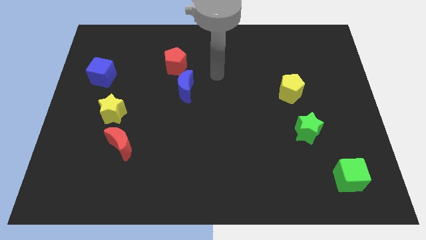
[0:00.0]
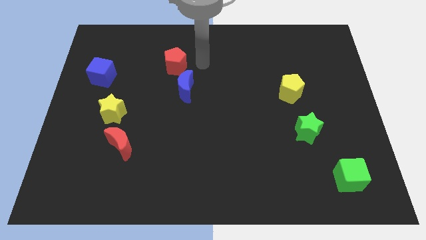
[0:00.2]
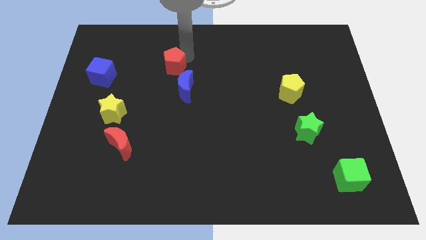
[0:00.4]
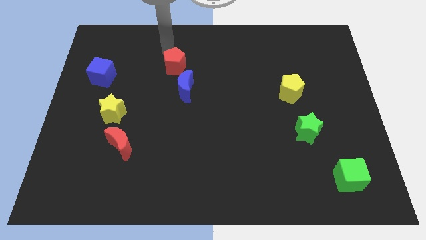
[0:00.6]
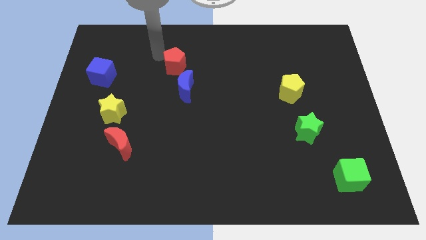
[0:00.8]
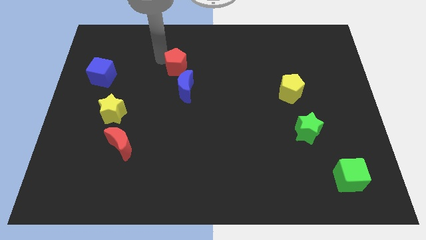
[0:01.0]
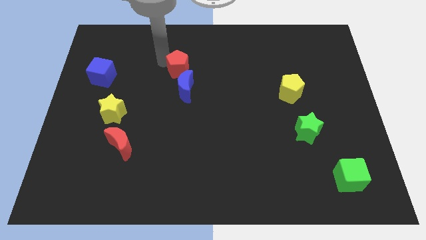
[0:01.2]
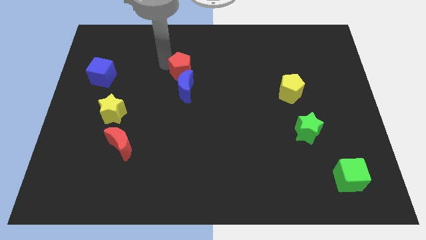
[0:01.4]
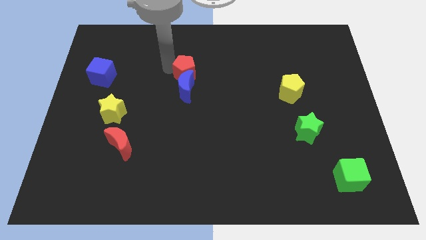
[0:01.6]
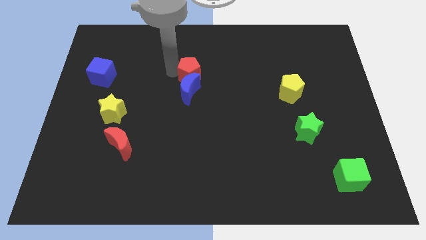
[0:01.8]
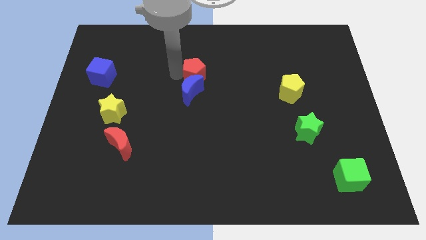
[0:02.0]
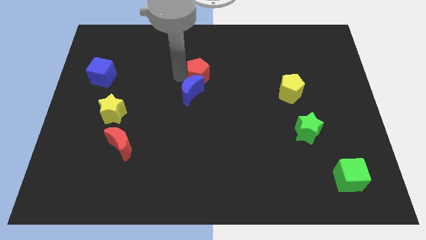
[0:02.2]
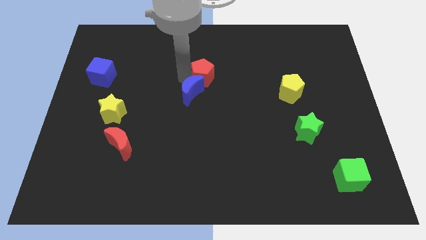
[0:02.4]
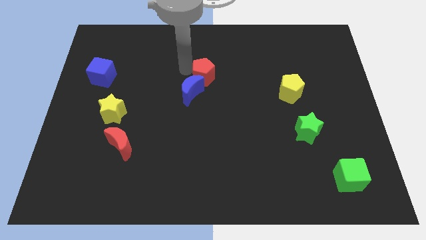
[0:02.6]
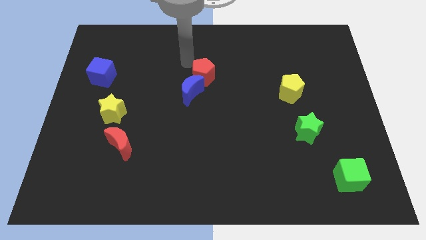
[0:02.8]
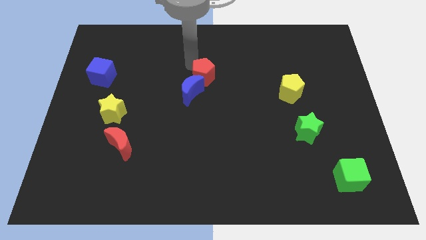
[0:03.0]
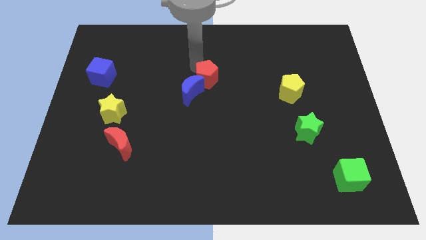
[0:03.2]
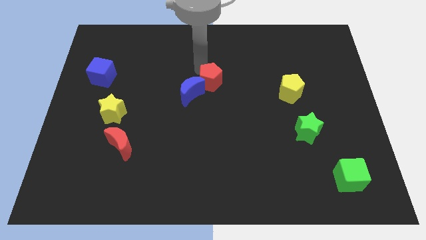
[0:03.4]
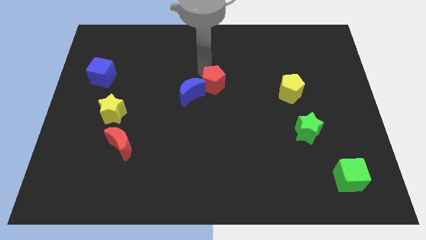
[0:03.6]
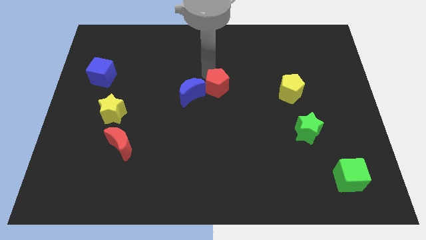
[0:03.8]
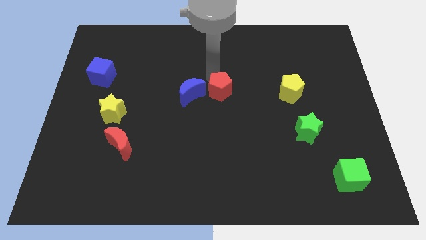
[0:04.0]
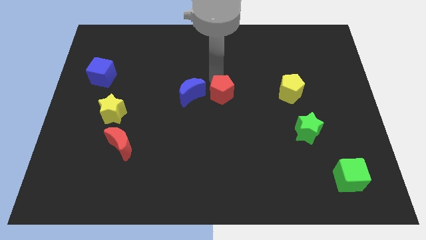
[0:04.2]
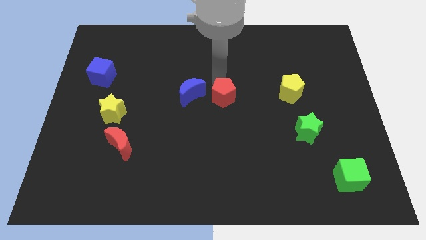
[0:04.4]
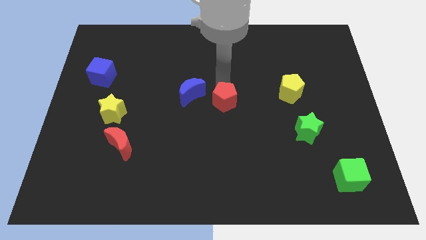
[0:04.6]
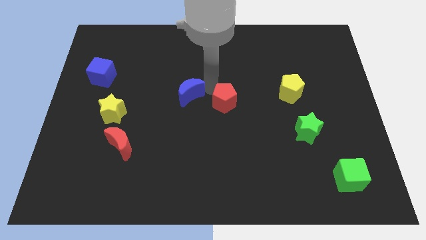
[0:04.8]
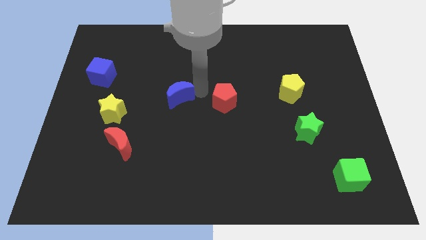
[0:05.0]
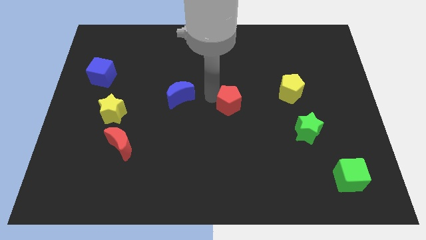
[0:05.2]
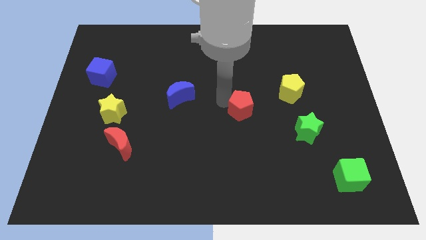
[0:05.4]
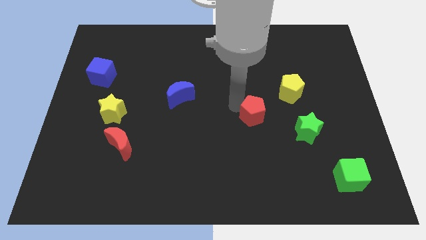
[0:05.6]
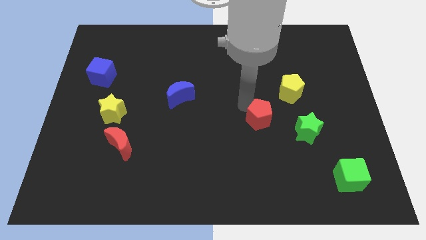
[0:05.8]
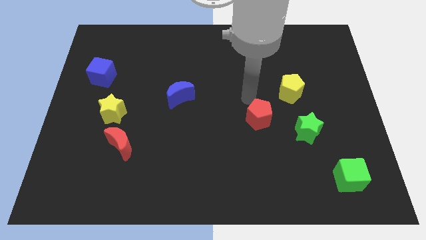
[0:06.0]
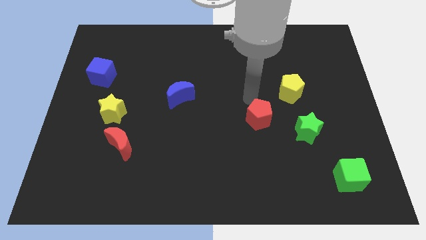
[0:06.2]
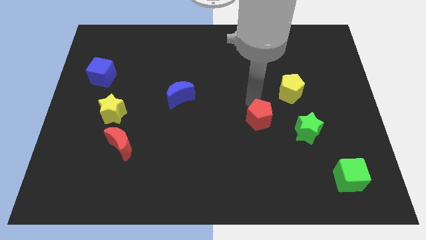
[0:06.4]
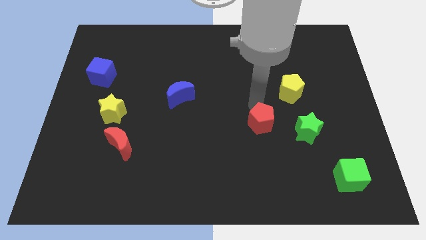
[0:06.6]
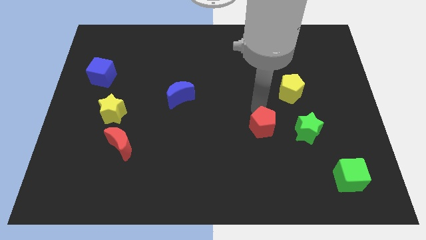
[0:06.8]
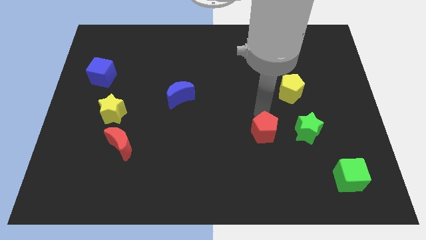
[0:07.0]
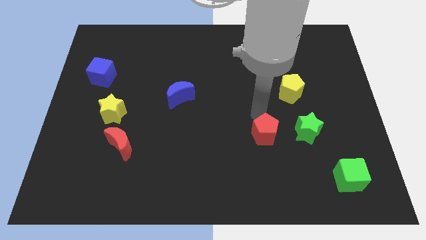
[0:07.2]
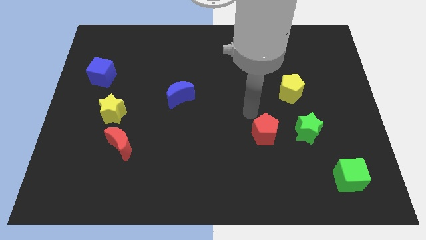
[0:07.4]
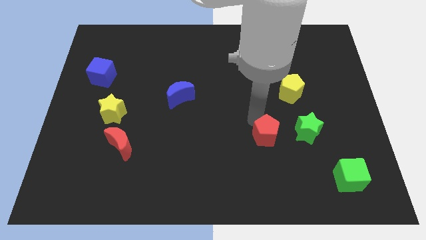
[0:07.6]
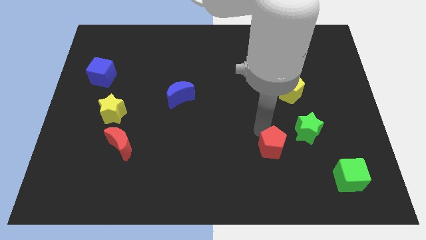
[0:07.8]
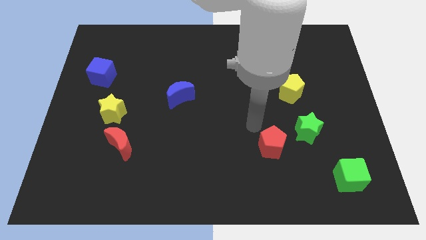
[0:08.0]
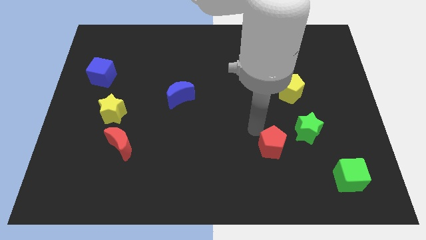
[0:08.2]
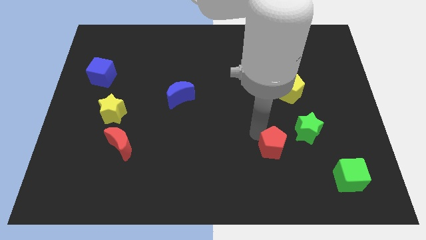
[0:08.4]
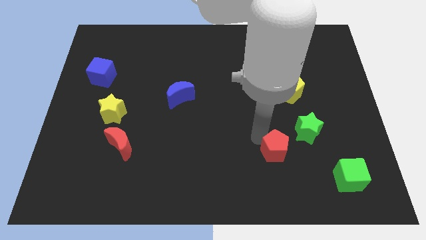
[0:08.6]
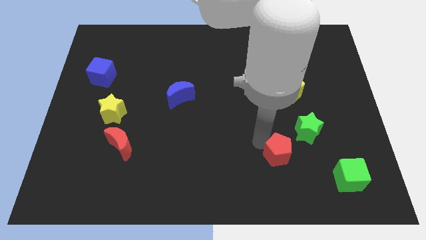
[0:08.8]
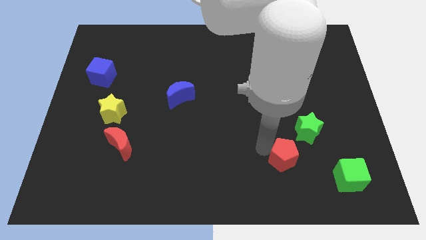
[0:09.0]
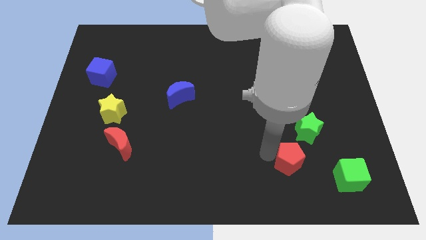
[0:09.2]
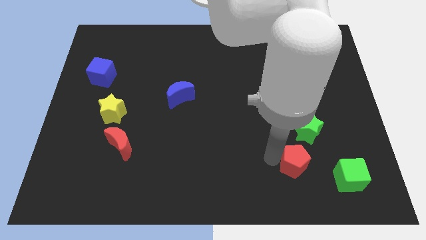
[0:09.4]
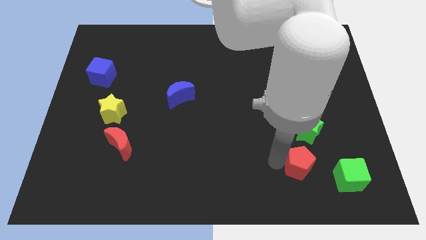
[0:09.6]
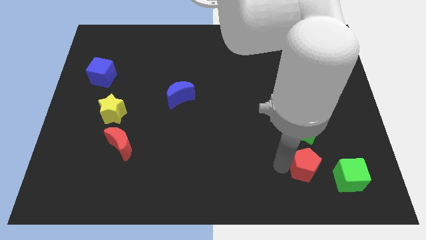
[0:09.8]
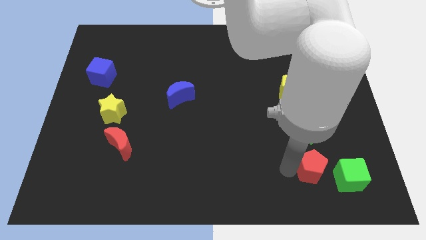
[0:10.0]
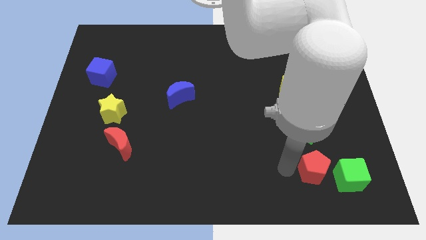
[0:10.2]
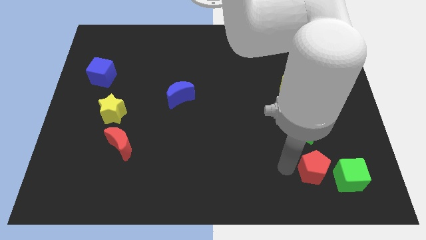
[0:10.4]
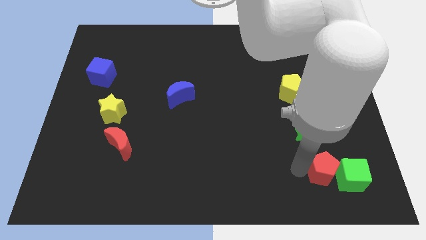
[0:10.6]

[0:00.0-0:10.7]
put the red pentagon next to the green cube

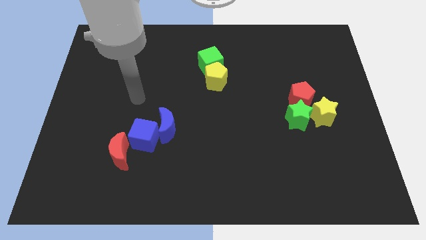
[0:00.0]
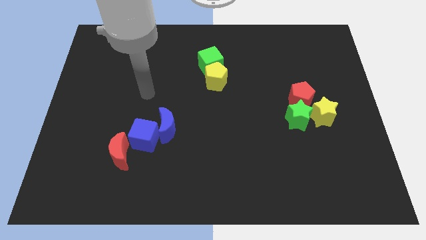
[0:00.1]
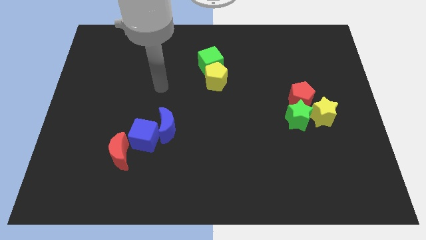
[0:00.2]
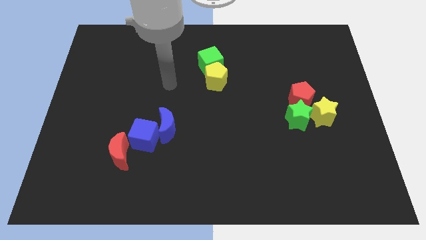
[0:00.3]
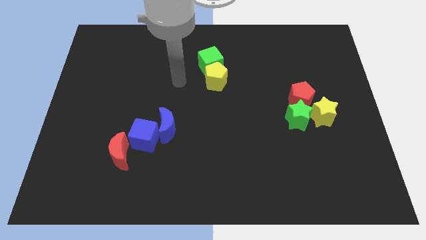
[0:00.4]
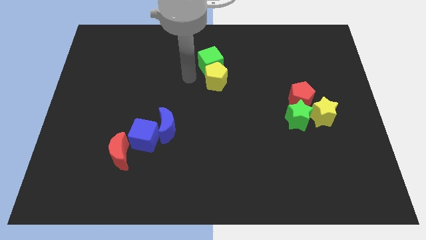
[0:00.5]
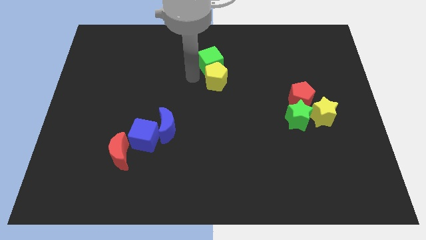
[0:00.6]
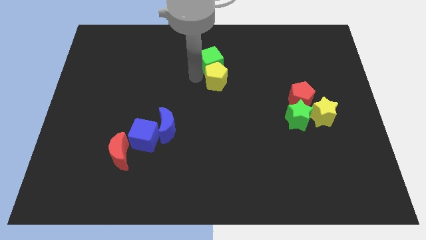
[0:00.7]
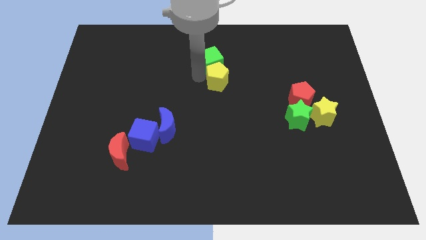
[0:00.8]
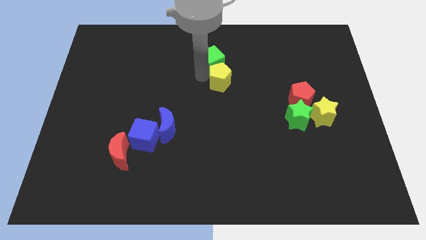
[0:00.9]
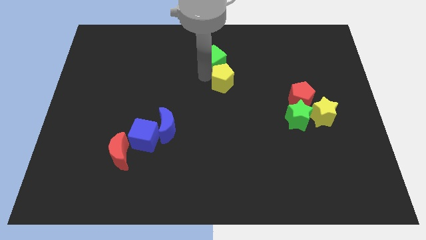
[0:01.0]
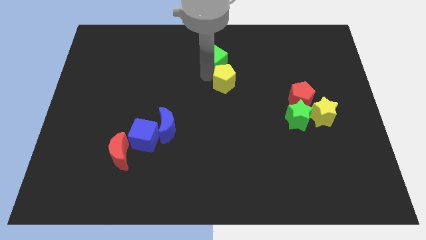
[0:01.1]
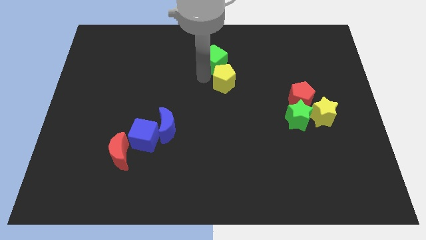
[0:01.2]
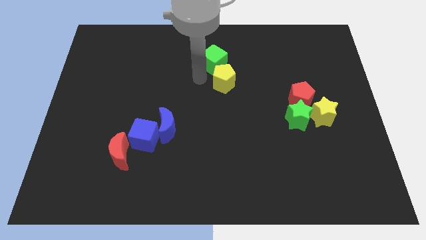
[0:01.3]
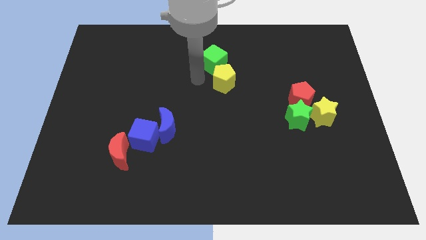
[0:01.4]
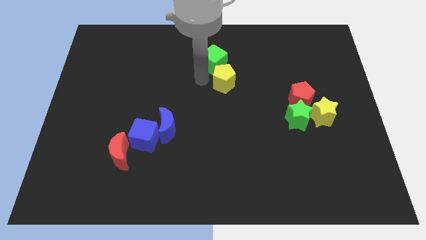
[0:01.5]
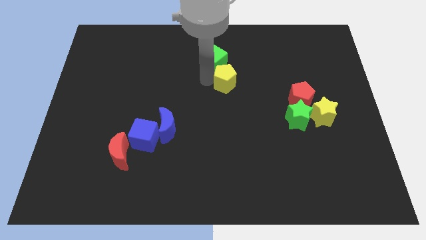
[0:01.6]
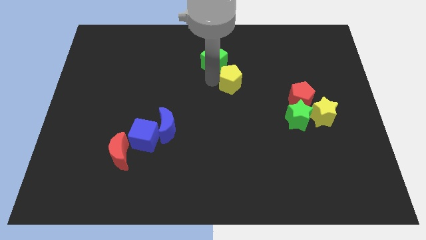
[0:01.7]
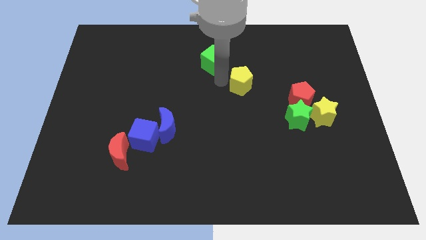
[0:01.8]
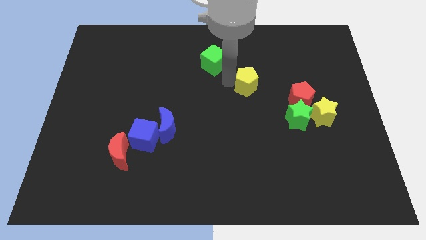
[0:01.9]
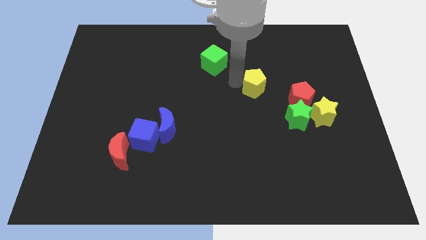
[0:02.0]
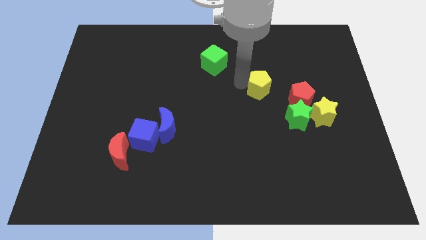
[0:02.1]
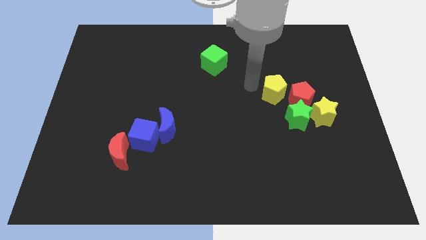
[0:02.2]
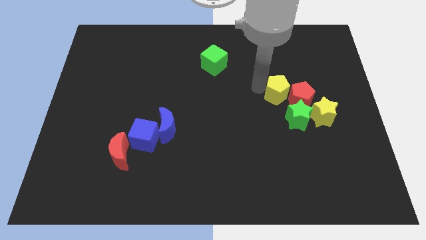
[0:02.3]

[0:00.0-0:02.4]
put the yellow pentagon towards the red pentagon
